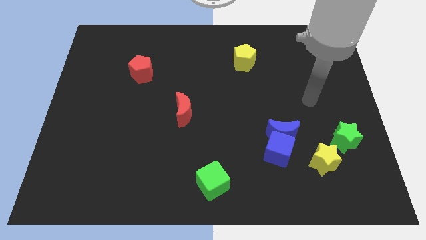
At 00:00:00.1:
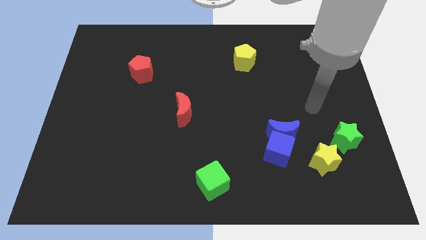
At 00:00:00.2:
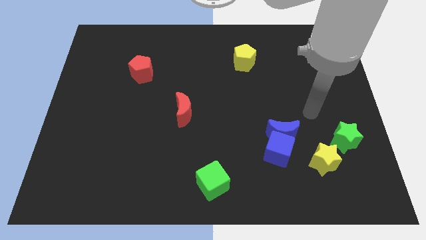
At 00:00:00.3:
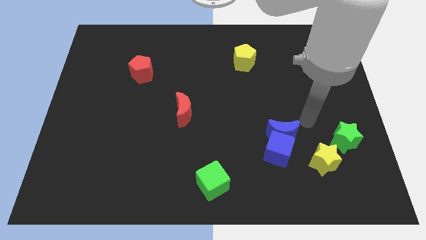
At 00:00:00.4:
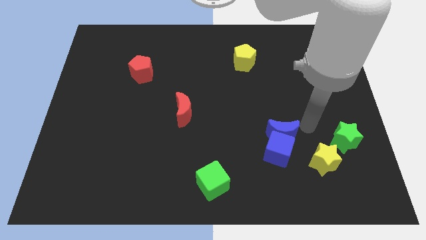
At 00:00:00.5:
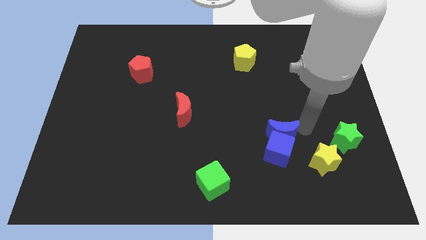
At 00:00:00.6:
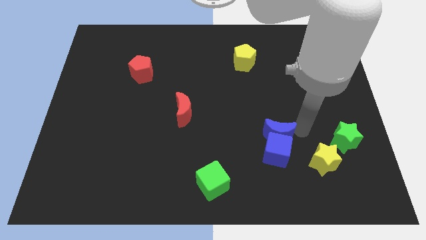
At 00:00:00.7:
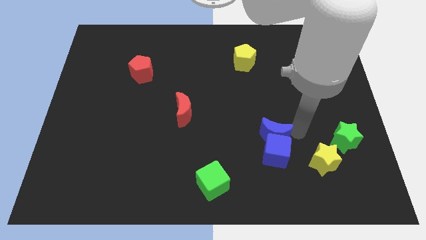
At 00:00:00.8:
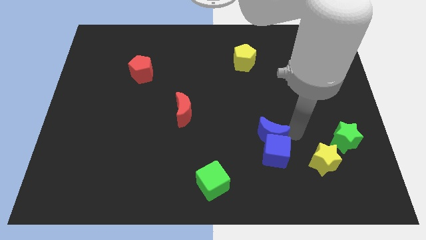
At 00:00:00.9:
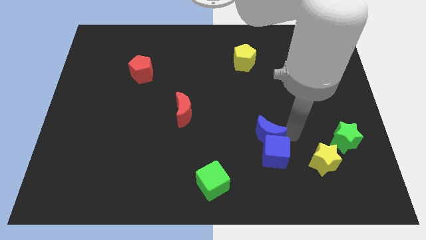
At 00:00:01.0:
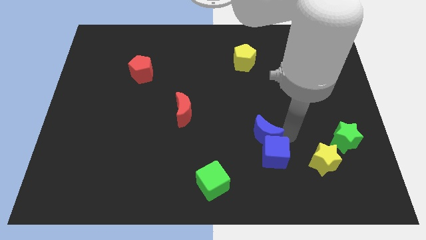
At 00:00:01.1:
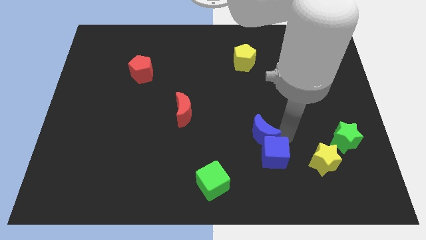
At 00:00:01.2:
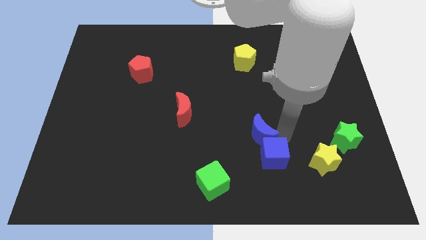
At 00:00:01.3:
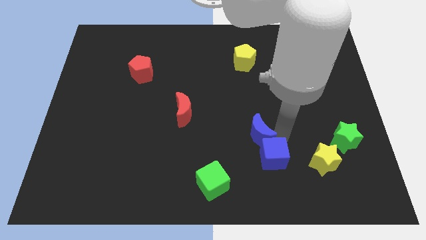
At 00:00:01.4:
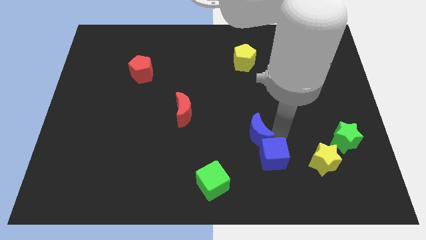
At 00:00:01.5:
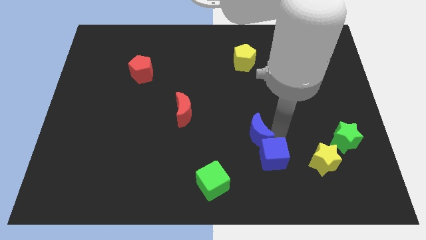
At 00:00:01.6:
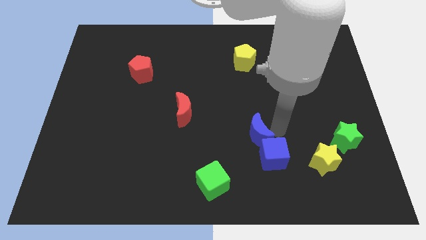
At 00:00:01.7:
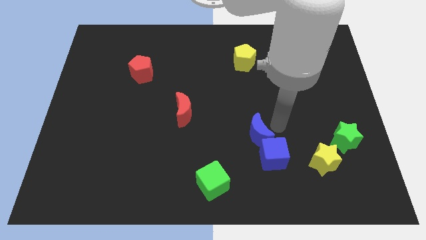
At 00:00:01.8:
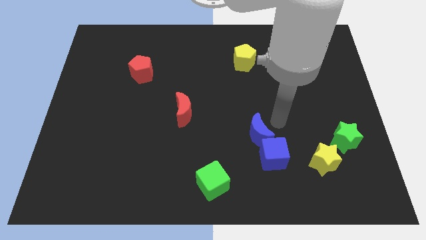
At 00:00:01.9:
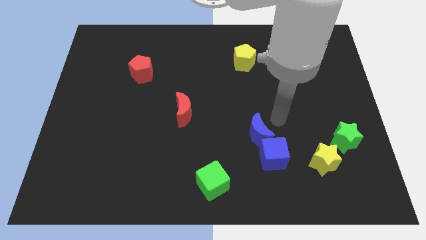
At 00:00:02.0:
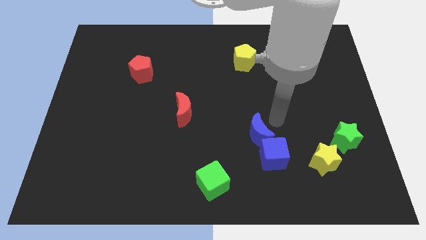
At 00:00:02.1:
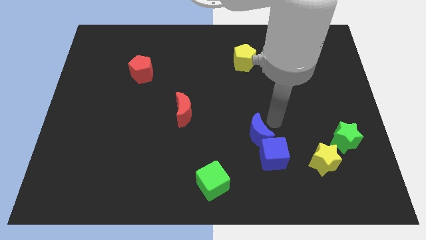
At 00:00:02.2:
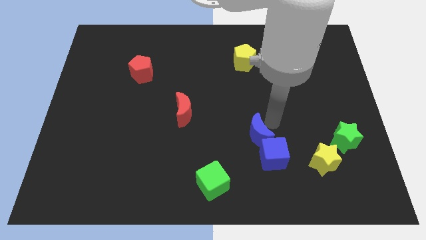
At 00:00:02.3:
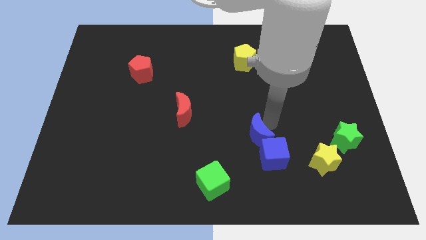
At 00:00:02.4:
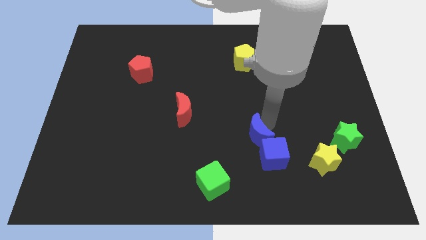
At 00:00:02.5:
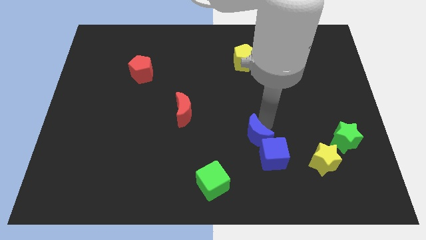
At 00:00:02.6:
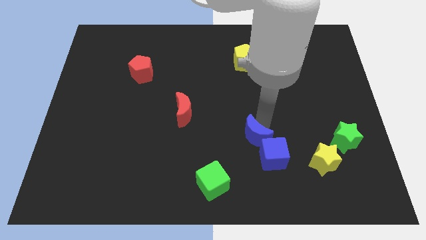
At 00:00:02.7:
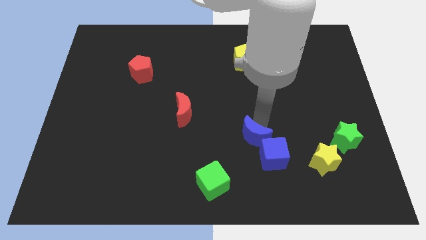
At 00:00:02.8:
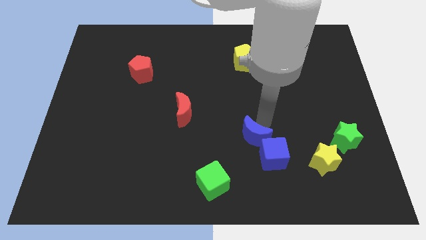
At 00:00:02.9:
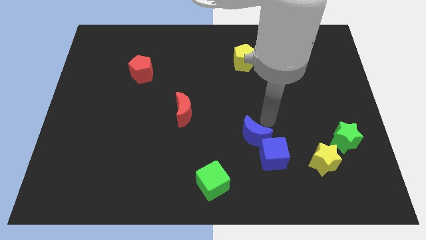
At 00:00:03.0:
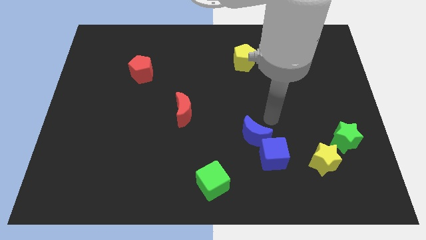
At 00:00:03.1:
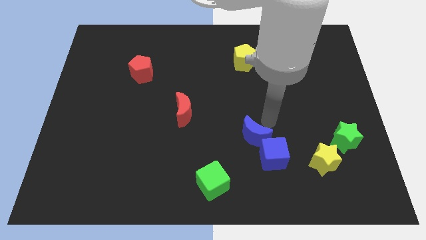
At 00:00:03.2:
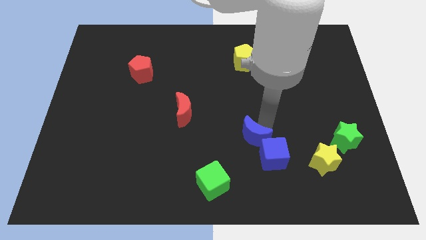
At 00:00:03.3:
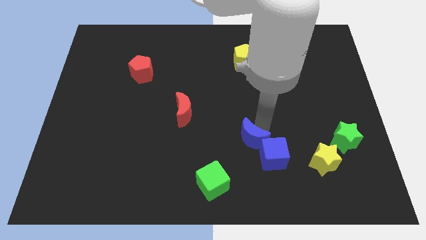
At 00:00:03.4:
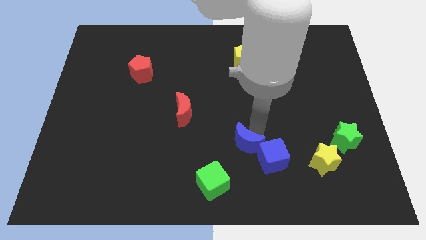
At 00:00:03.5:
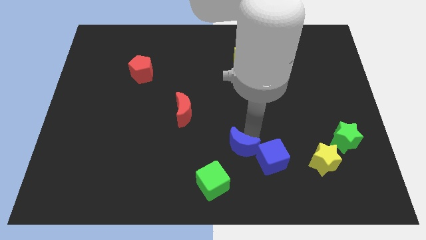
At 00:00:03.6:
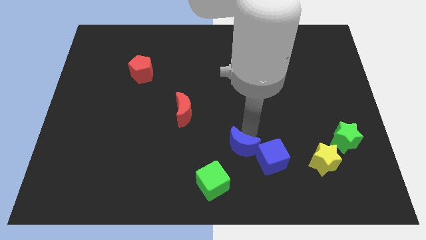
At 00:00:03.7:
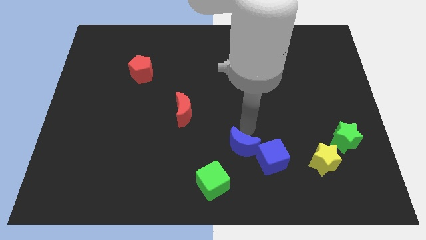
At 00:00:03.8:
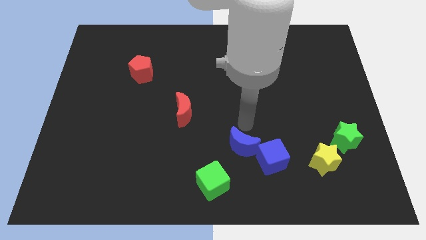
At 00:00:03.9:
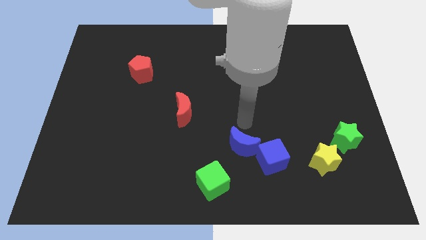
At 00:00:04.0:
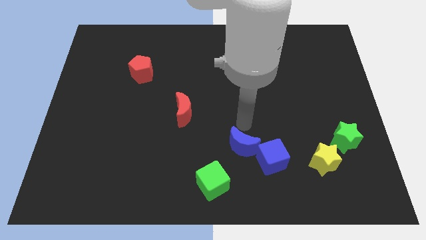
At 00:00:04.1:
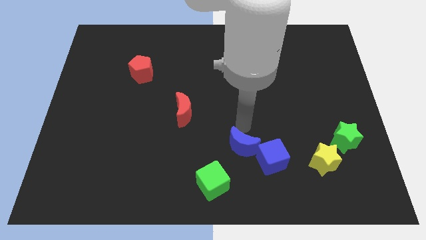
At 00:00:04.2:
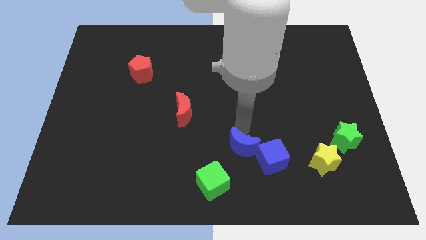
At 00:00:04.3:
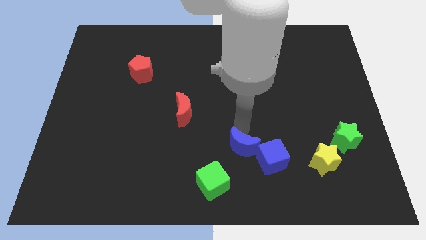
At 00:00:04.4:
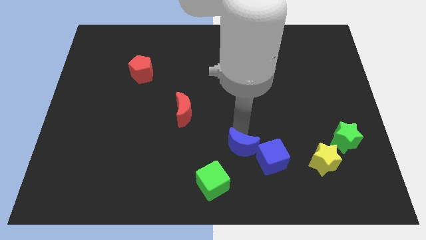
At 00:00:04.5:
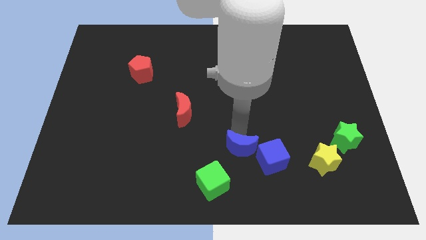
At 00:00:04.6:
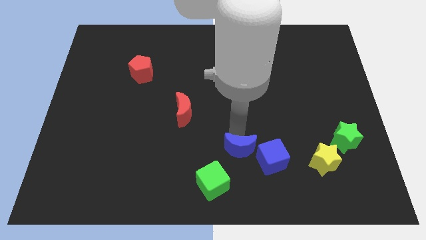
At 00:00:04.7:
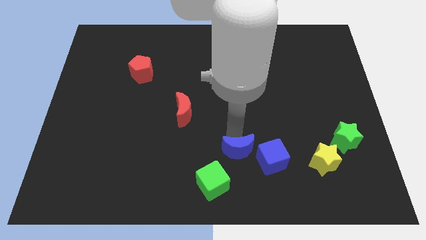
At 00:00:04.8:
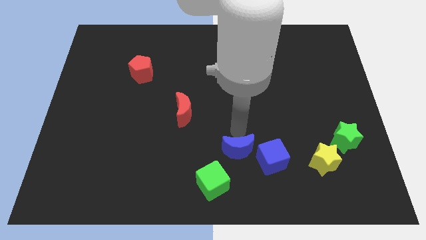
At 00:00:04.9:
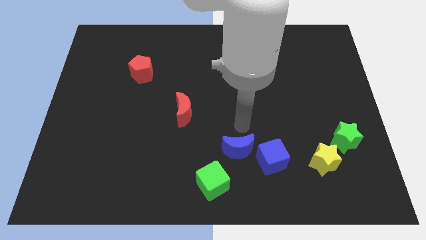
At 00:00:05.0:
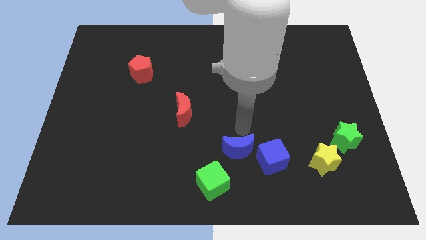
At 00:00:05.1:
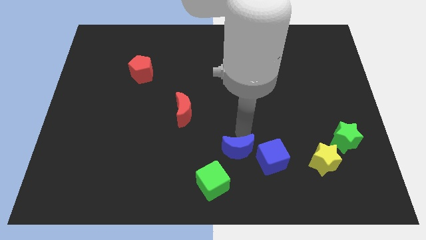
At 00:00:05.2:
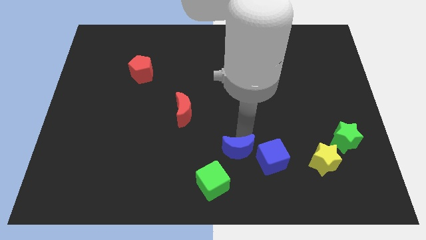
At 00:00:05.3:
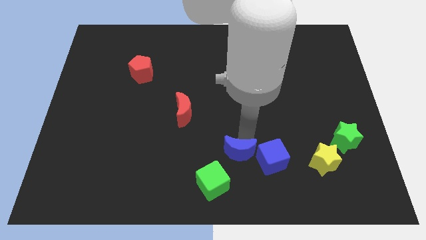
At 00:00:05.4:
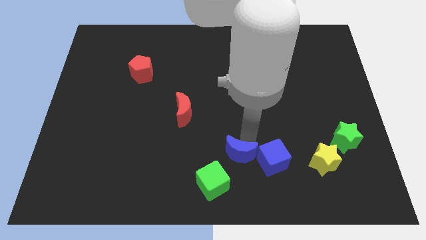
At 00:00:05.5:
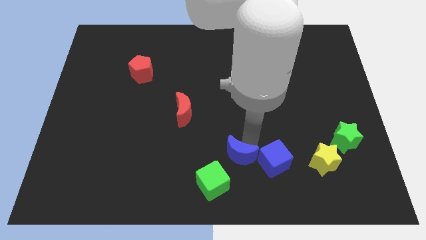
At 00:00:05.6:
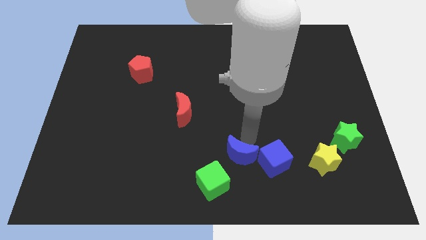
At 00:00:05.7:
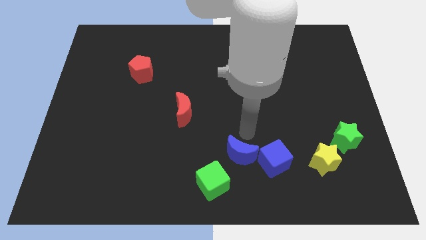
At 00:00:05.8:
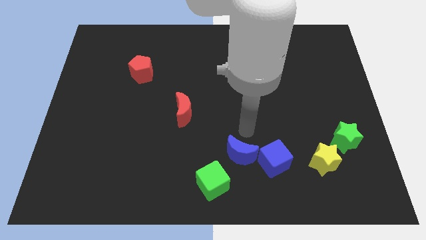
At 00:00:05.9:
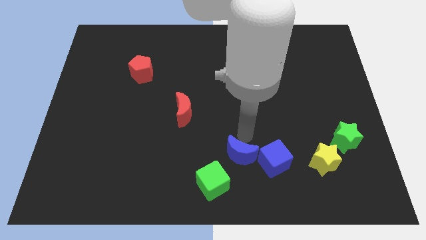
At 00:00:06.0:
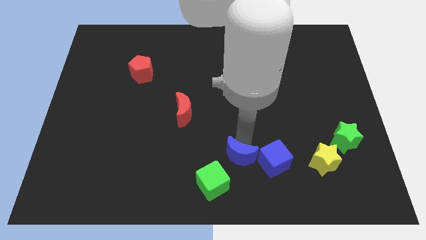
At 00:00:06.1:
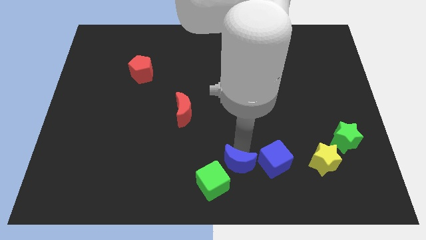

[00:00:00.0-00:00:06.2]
move the blue moon to the bottom
